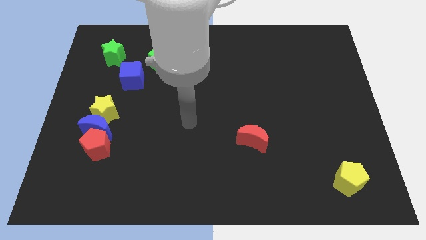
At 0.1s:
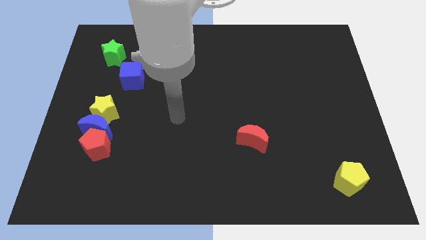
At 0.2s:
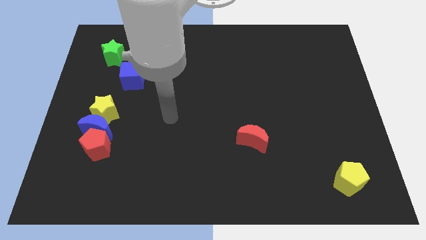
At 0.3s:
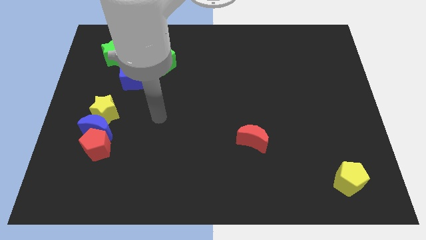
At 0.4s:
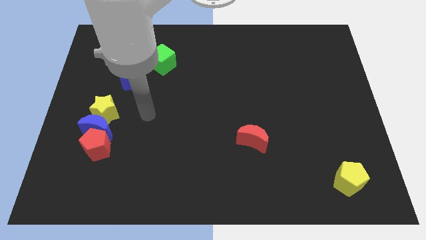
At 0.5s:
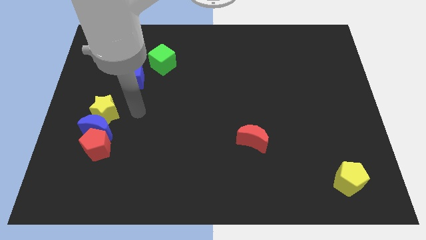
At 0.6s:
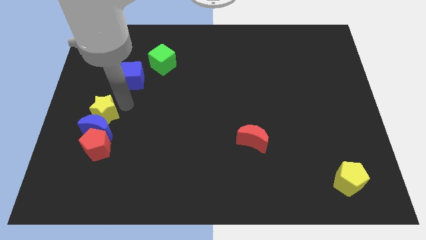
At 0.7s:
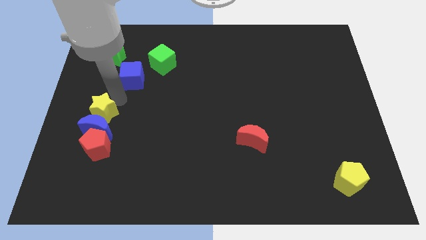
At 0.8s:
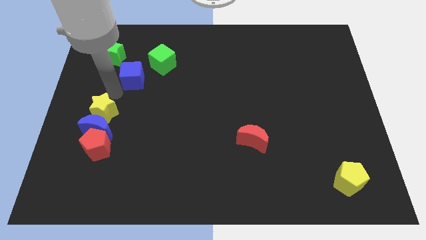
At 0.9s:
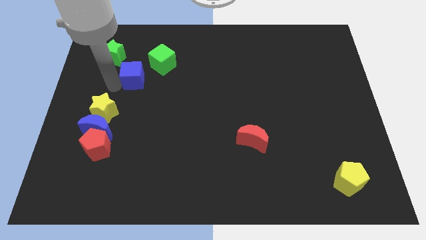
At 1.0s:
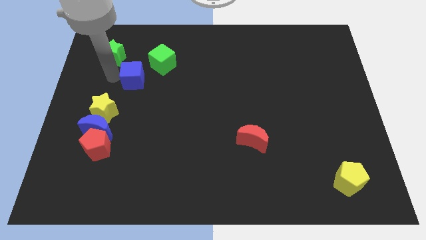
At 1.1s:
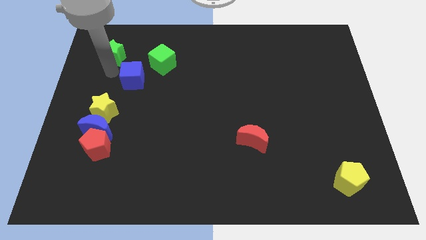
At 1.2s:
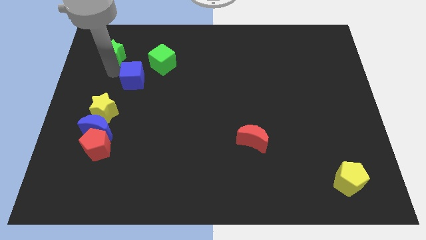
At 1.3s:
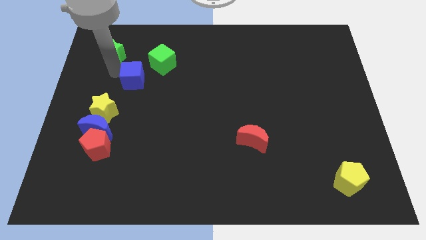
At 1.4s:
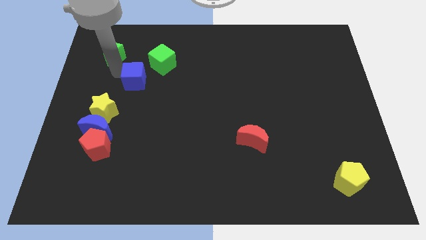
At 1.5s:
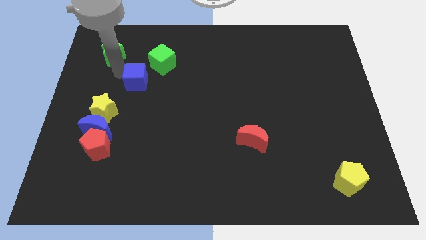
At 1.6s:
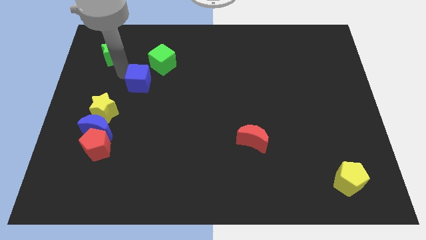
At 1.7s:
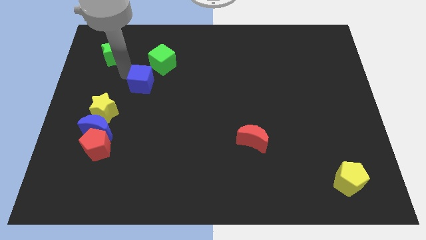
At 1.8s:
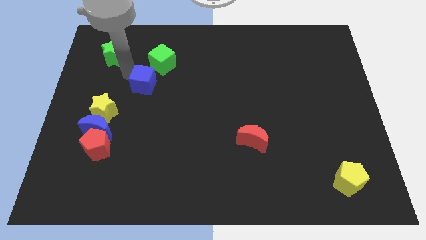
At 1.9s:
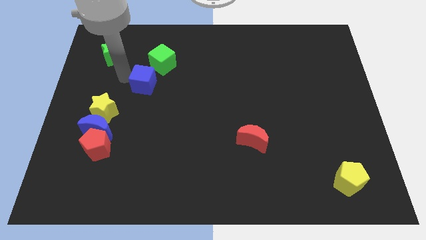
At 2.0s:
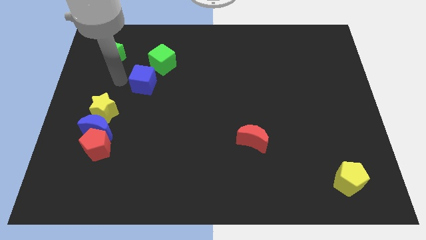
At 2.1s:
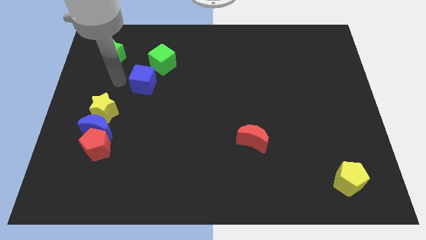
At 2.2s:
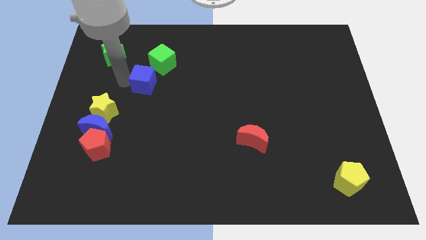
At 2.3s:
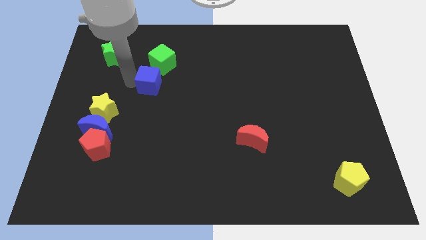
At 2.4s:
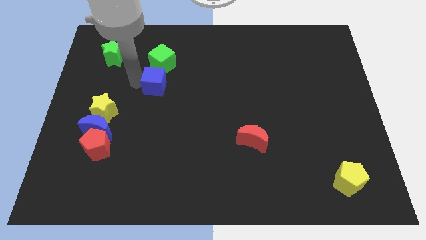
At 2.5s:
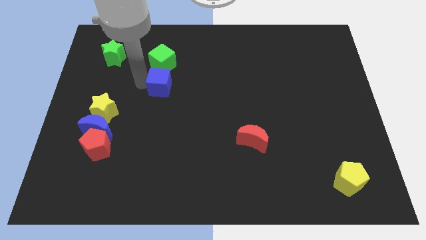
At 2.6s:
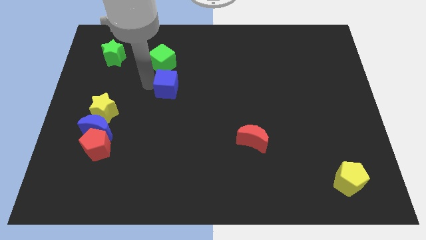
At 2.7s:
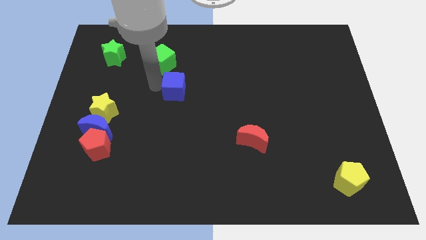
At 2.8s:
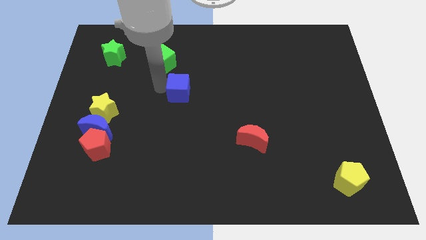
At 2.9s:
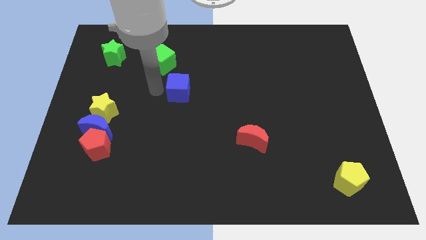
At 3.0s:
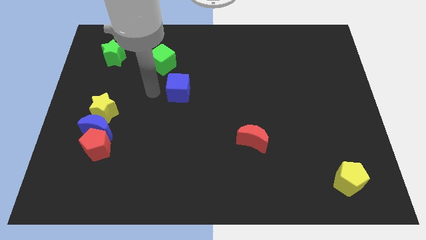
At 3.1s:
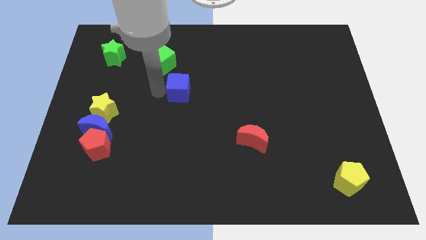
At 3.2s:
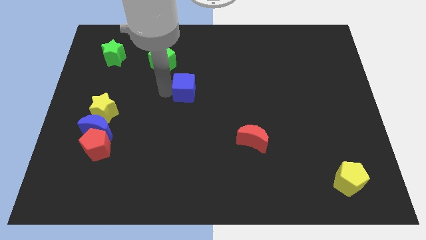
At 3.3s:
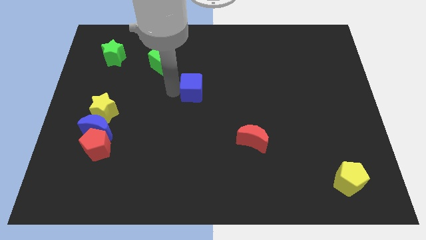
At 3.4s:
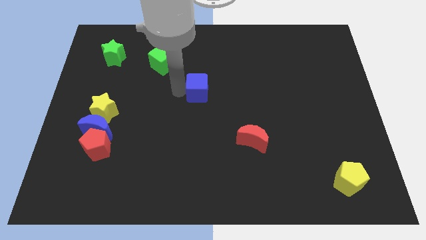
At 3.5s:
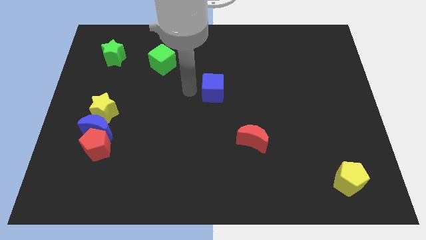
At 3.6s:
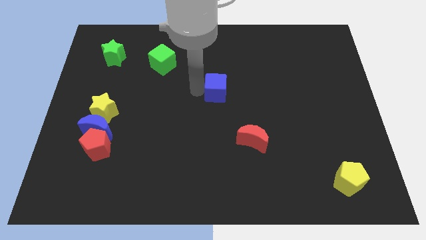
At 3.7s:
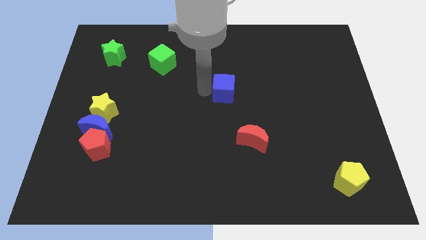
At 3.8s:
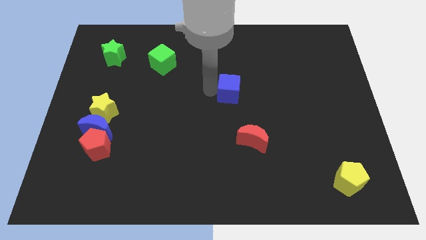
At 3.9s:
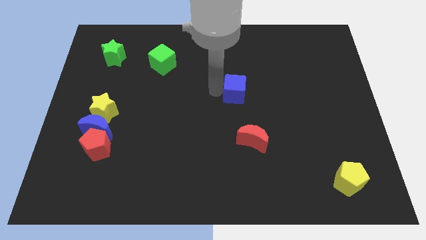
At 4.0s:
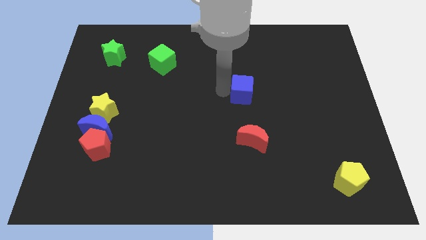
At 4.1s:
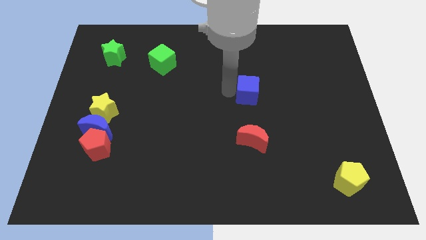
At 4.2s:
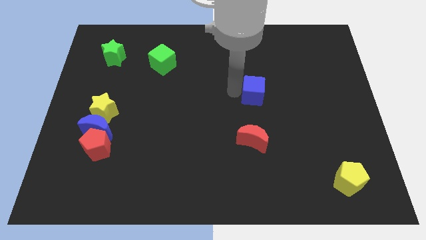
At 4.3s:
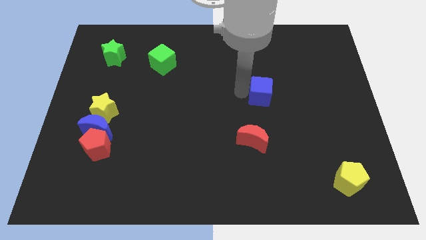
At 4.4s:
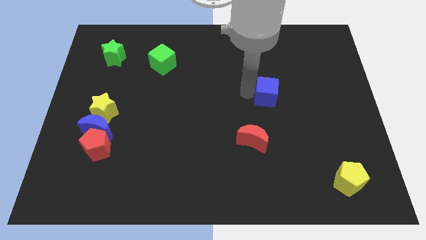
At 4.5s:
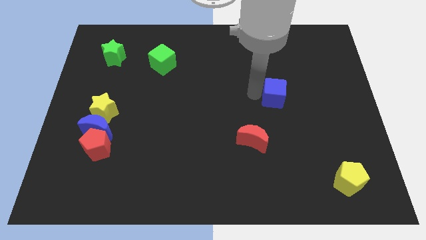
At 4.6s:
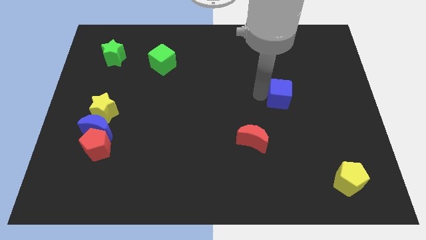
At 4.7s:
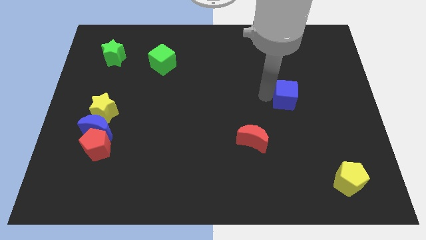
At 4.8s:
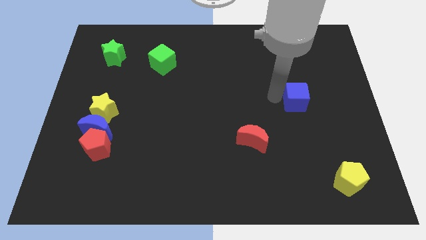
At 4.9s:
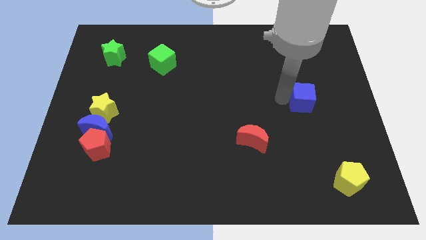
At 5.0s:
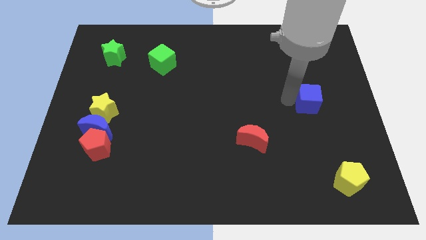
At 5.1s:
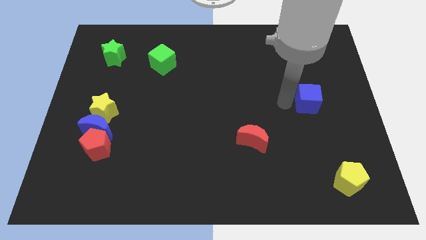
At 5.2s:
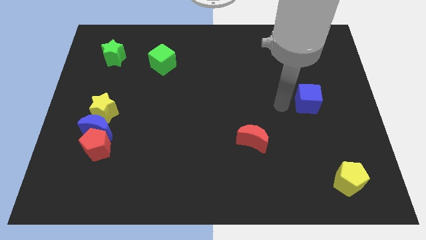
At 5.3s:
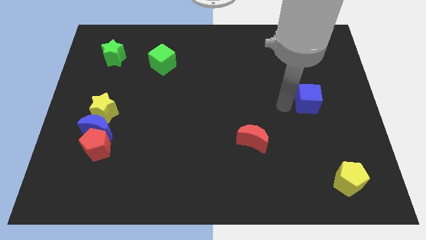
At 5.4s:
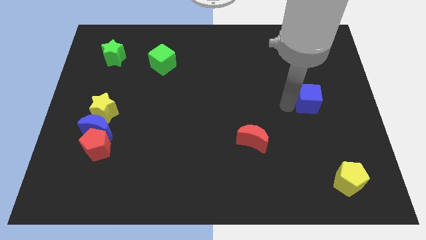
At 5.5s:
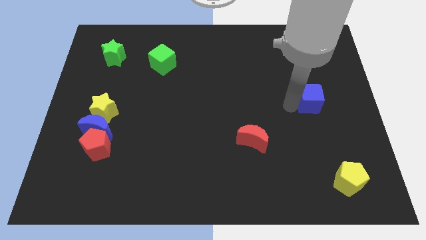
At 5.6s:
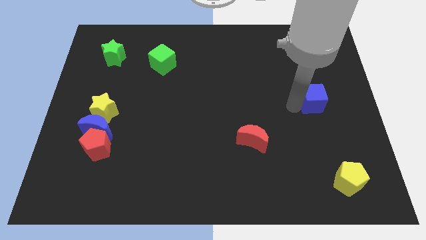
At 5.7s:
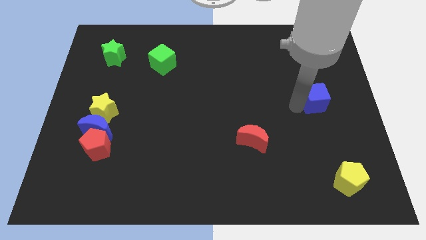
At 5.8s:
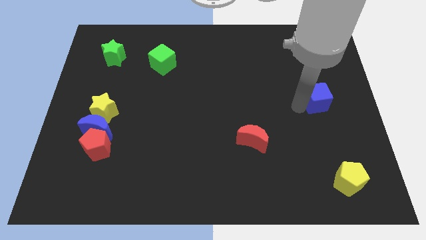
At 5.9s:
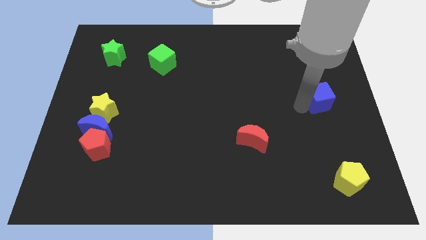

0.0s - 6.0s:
put the blue cube to the right side of the board
